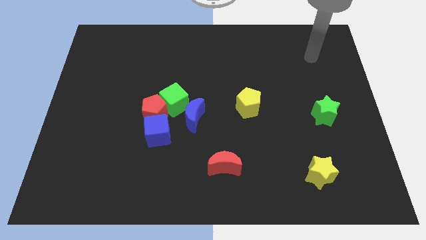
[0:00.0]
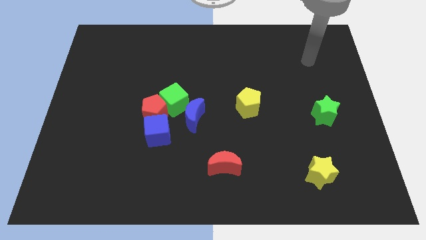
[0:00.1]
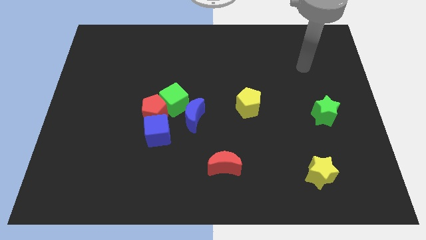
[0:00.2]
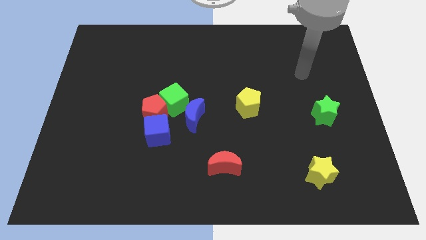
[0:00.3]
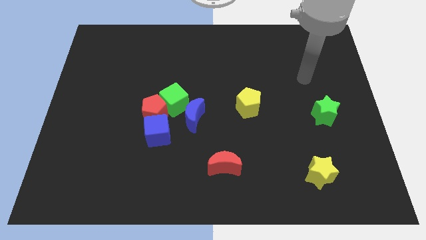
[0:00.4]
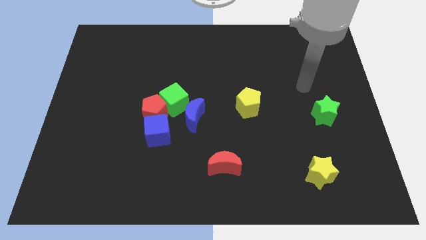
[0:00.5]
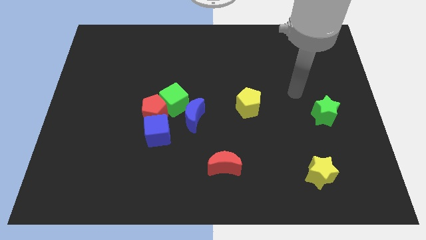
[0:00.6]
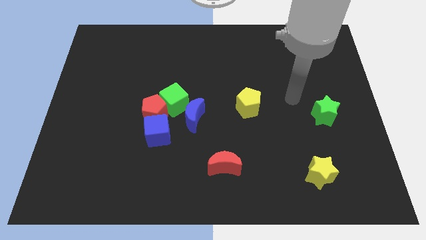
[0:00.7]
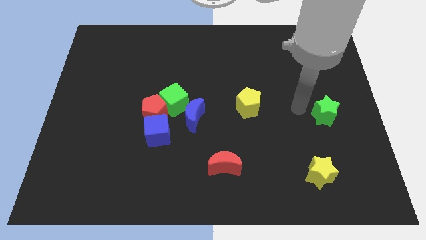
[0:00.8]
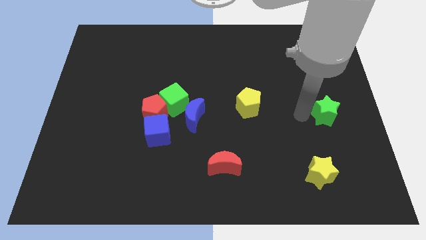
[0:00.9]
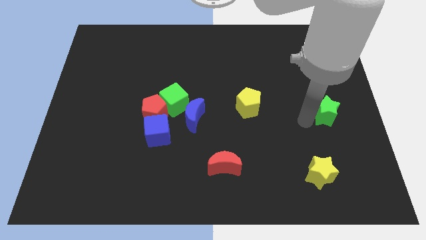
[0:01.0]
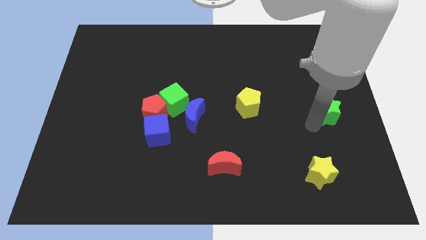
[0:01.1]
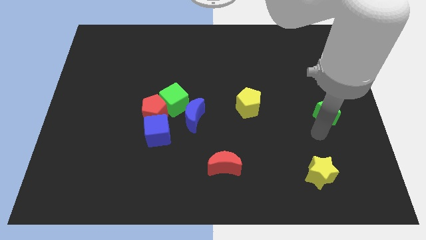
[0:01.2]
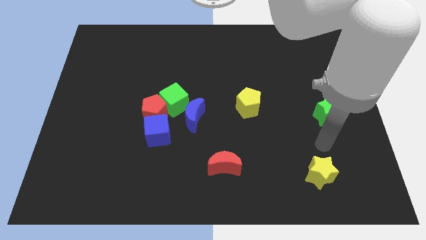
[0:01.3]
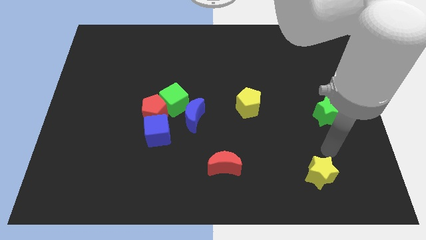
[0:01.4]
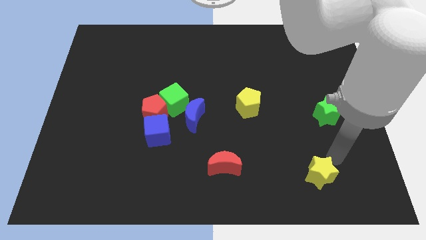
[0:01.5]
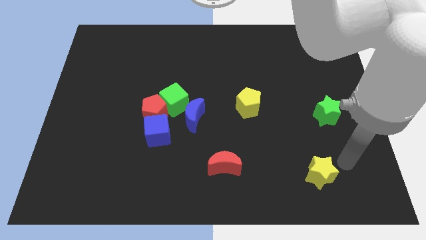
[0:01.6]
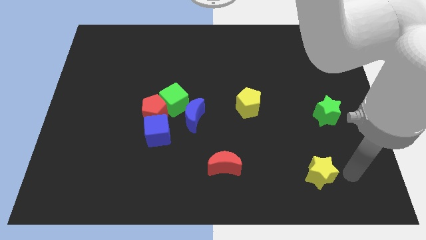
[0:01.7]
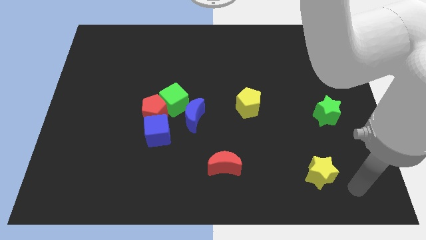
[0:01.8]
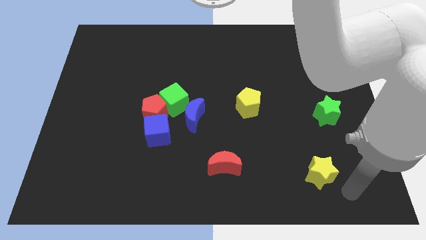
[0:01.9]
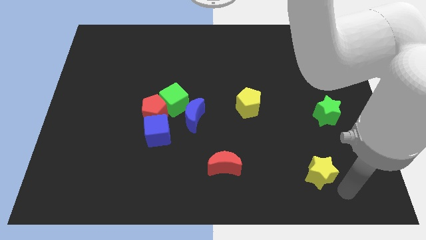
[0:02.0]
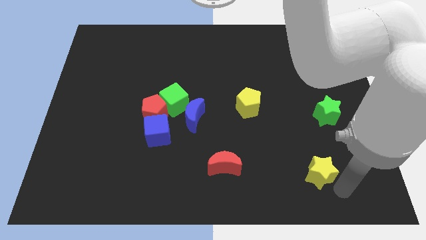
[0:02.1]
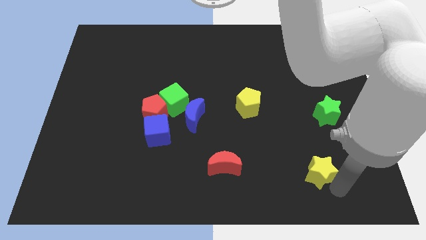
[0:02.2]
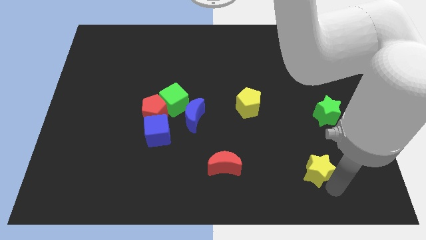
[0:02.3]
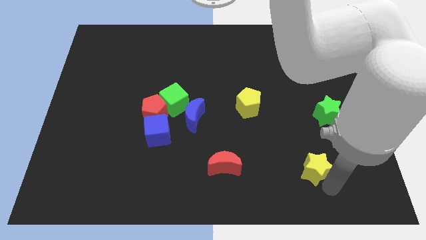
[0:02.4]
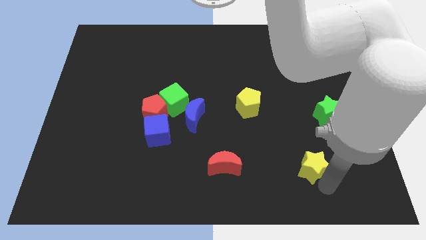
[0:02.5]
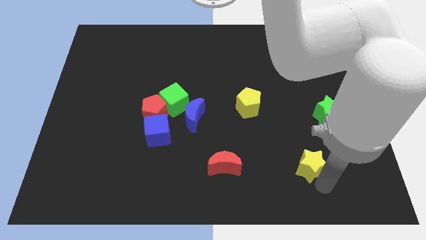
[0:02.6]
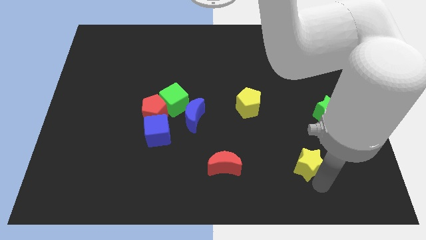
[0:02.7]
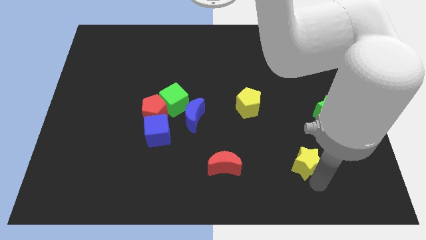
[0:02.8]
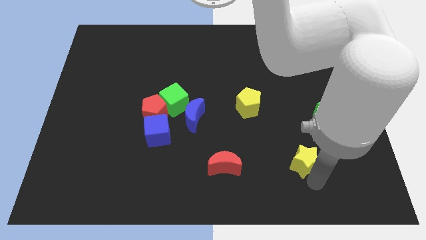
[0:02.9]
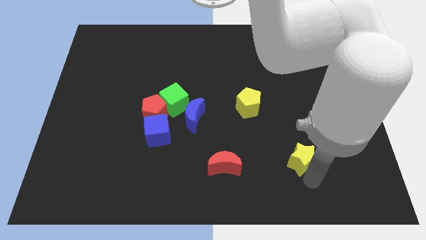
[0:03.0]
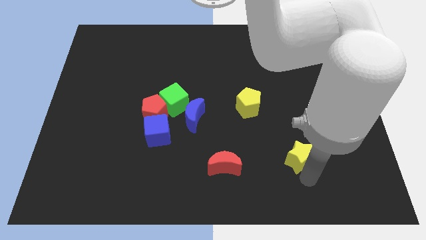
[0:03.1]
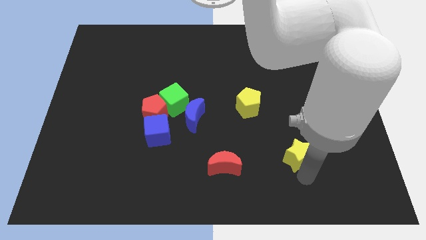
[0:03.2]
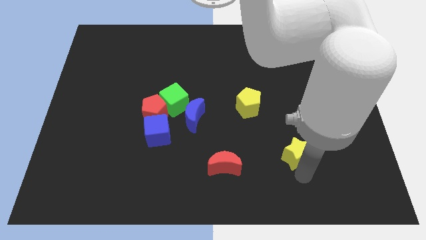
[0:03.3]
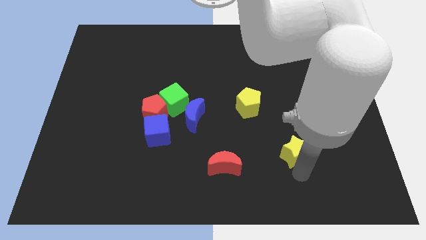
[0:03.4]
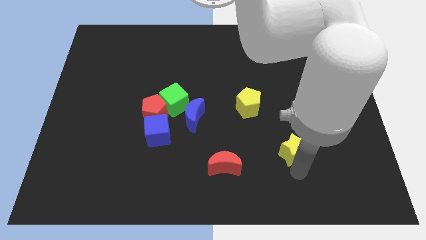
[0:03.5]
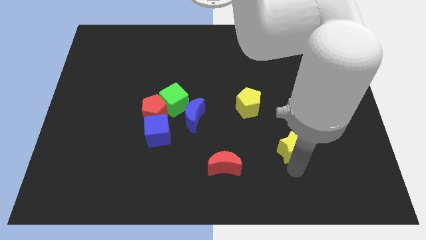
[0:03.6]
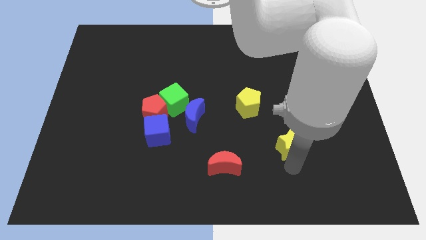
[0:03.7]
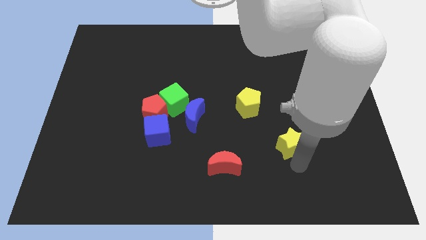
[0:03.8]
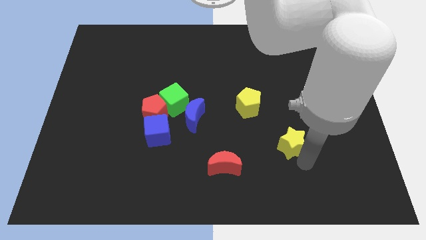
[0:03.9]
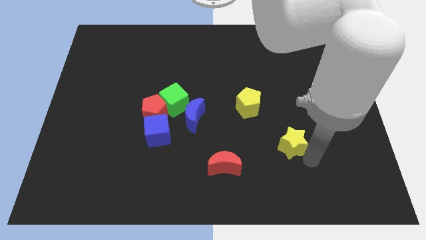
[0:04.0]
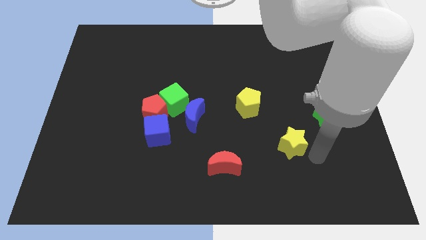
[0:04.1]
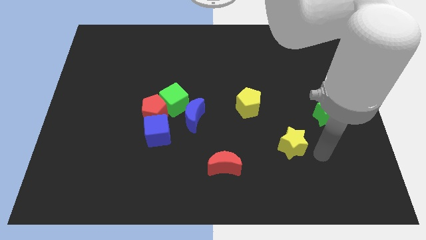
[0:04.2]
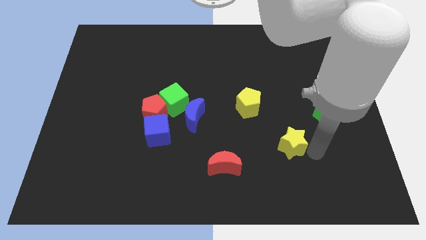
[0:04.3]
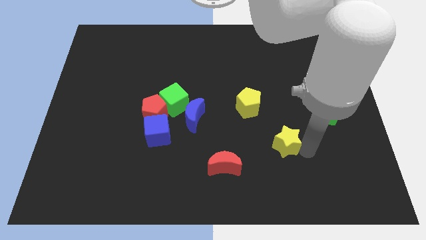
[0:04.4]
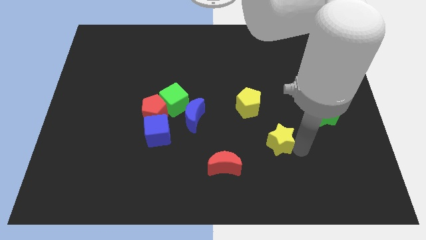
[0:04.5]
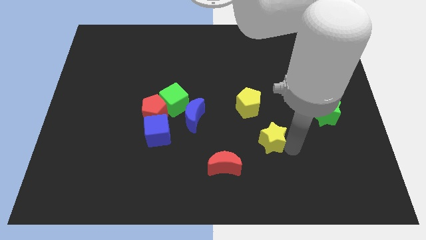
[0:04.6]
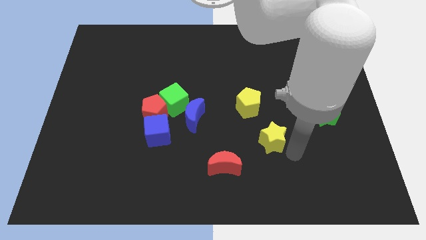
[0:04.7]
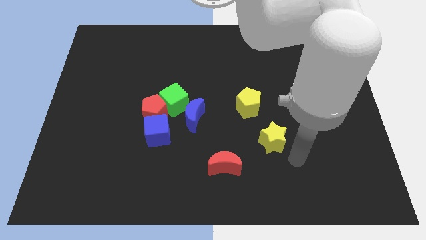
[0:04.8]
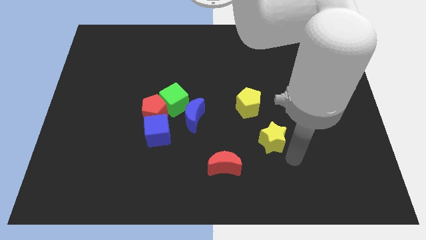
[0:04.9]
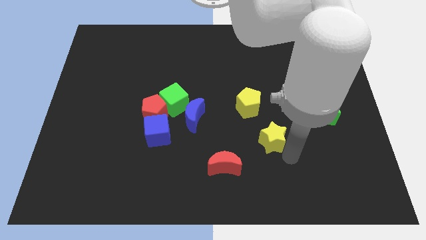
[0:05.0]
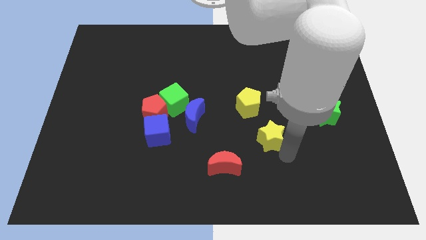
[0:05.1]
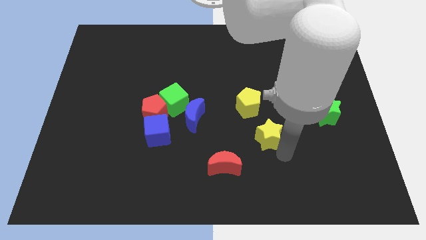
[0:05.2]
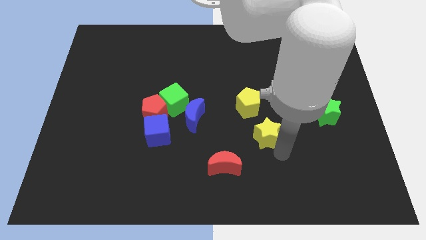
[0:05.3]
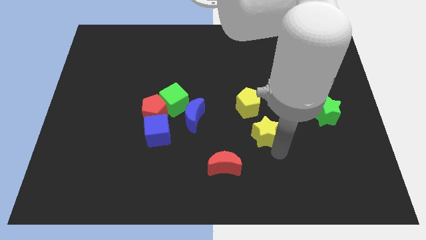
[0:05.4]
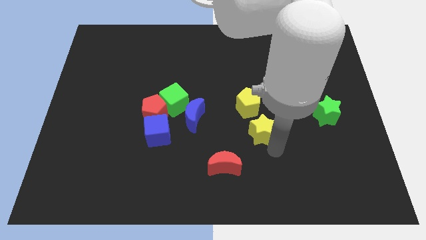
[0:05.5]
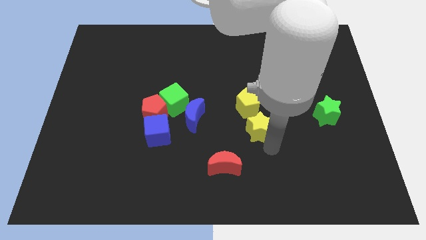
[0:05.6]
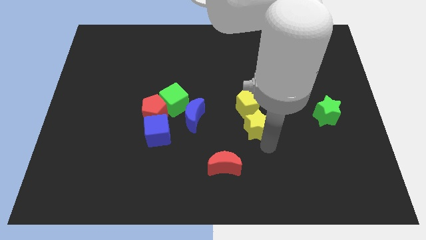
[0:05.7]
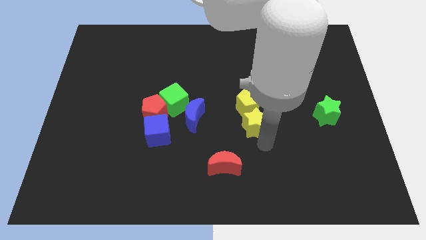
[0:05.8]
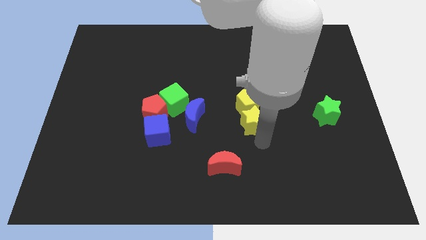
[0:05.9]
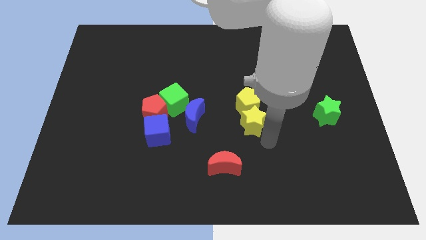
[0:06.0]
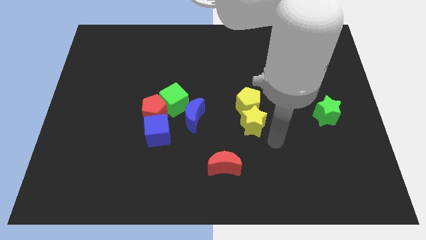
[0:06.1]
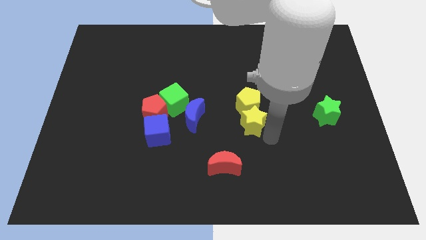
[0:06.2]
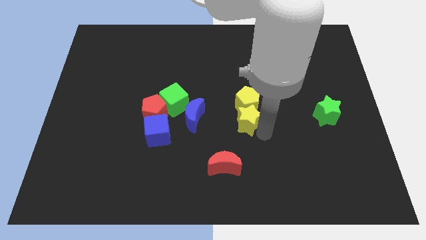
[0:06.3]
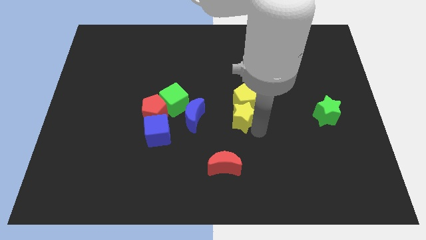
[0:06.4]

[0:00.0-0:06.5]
move the yellow star diagonally up and to the left

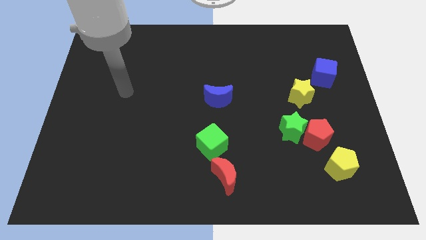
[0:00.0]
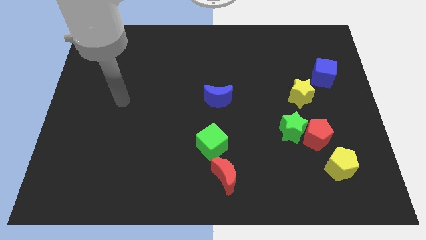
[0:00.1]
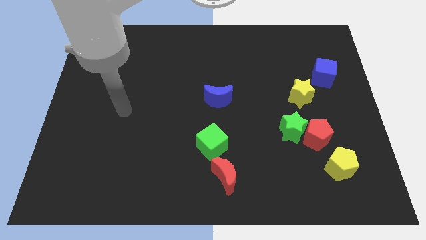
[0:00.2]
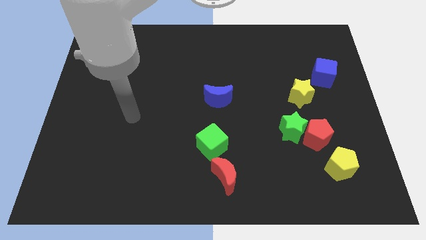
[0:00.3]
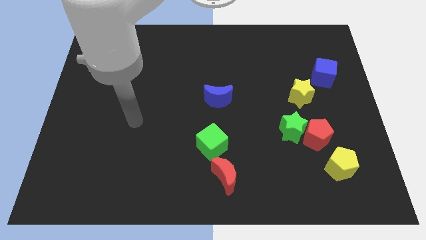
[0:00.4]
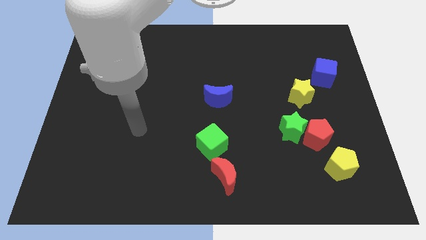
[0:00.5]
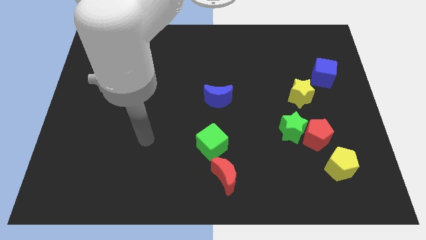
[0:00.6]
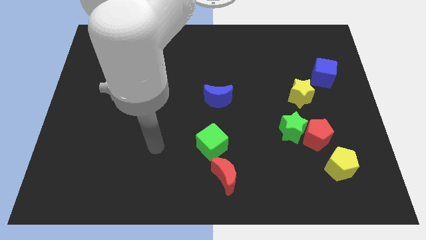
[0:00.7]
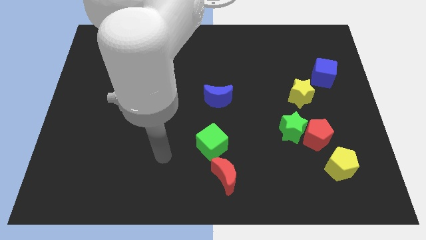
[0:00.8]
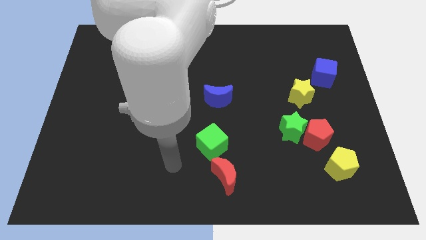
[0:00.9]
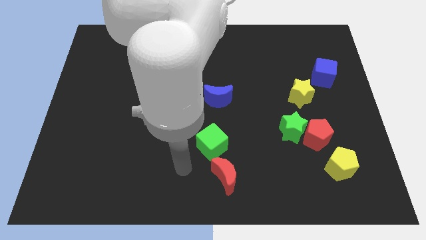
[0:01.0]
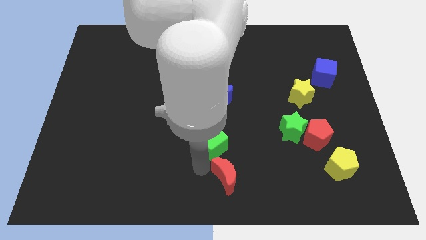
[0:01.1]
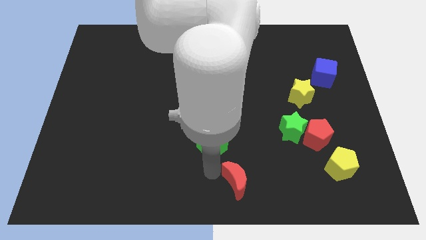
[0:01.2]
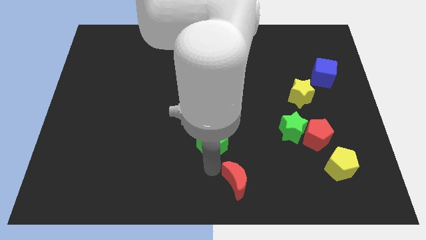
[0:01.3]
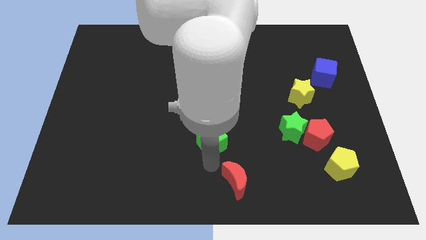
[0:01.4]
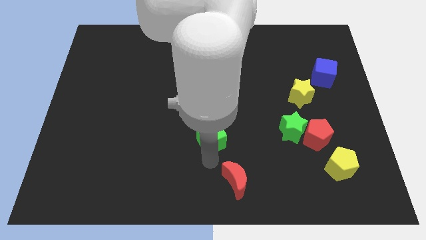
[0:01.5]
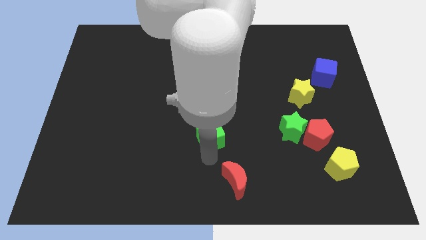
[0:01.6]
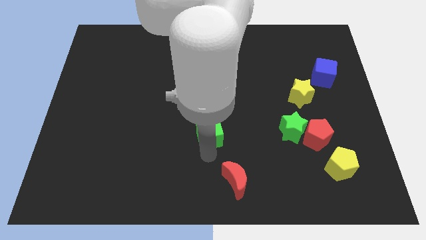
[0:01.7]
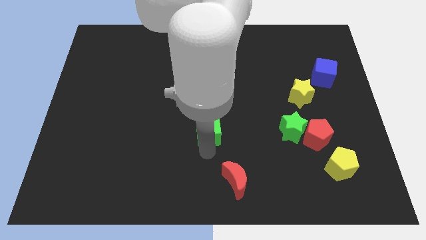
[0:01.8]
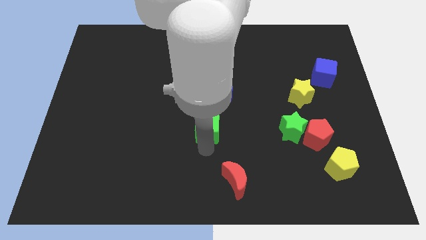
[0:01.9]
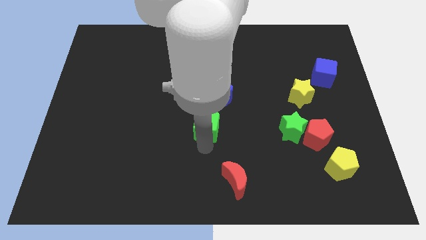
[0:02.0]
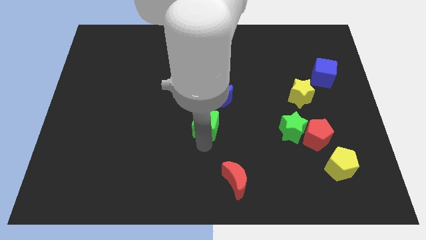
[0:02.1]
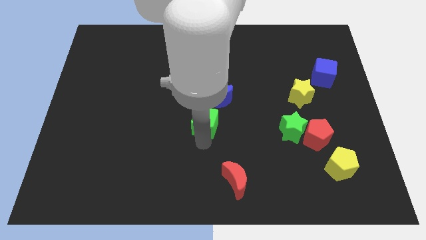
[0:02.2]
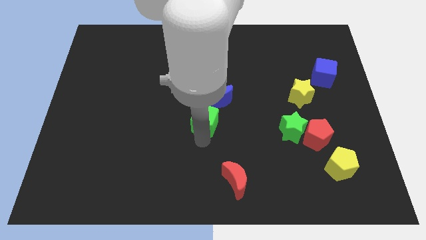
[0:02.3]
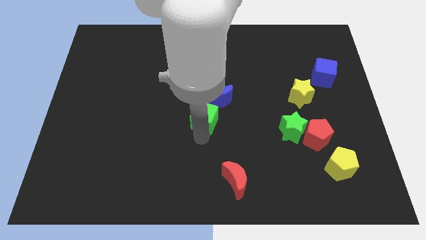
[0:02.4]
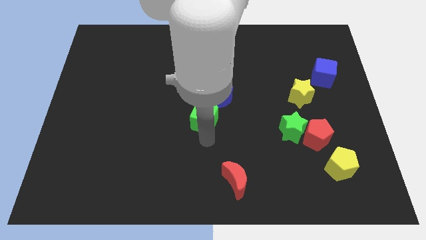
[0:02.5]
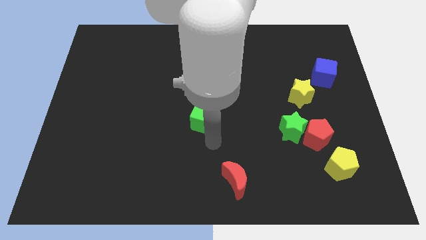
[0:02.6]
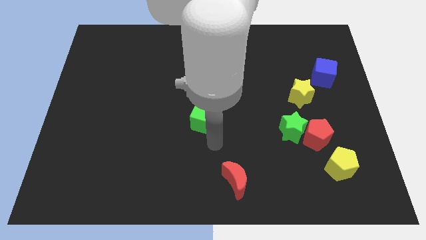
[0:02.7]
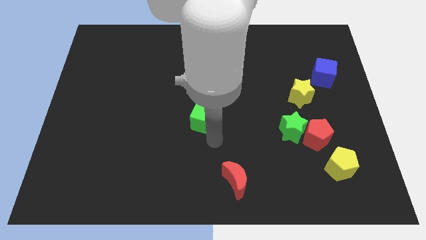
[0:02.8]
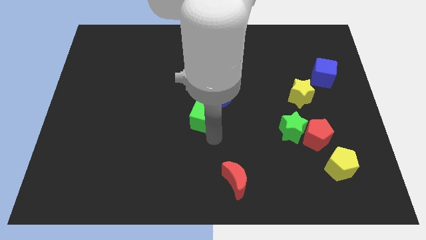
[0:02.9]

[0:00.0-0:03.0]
slightly slide the green cube up
